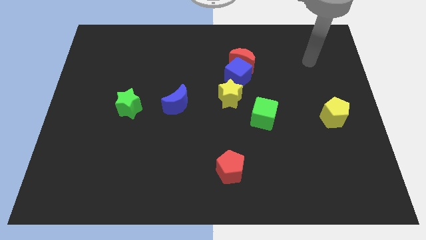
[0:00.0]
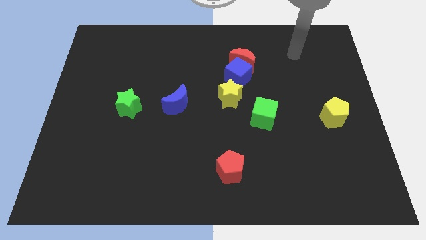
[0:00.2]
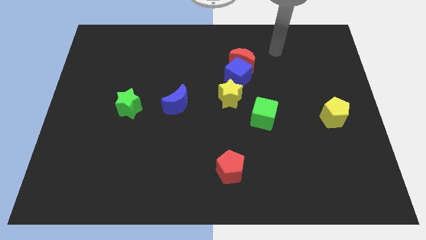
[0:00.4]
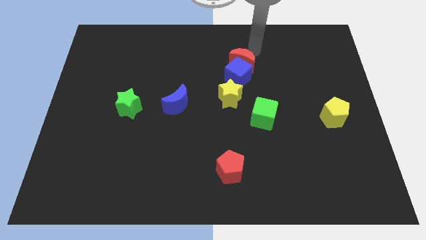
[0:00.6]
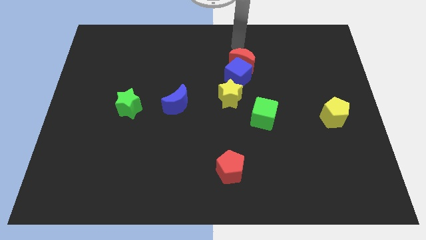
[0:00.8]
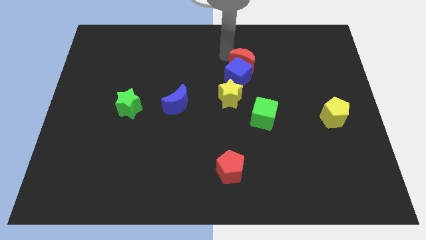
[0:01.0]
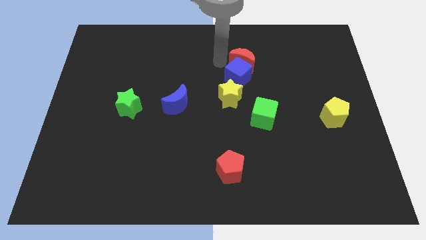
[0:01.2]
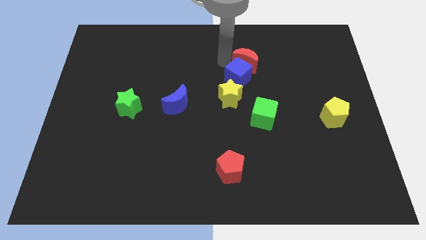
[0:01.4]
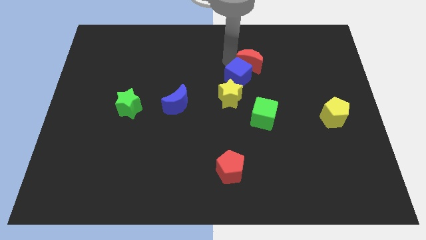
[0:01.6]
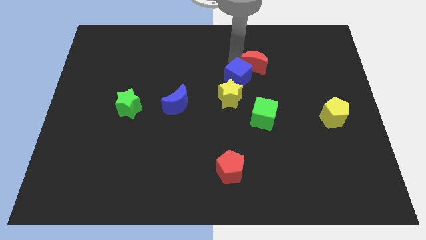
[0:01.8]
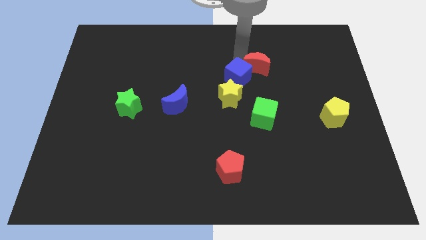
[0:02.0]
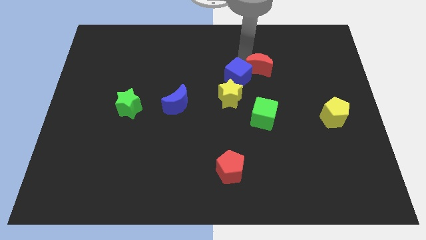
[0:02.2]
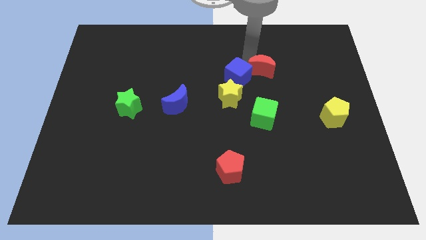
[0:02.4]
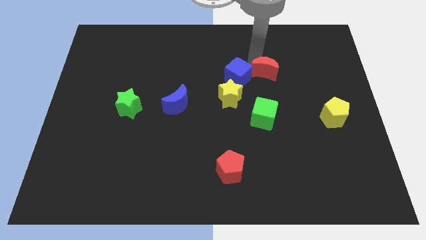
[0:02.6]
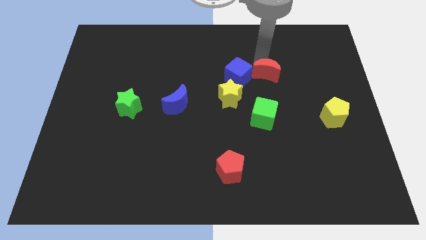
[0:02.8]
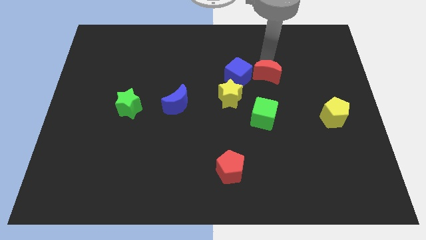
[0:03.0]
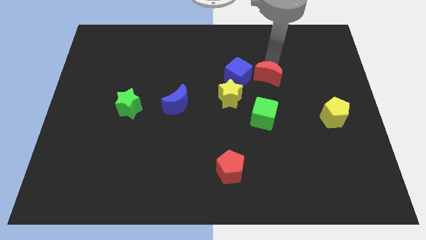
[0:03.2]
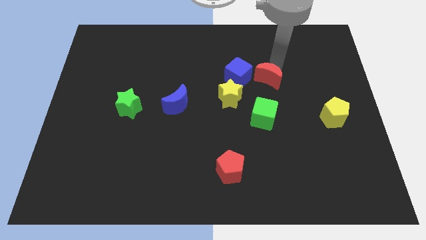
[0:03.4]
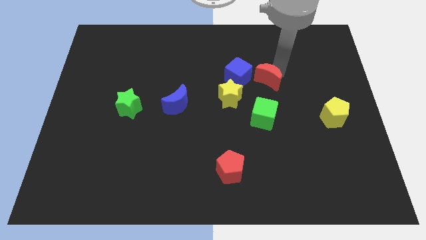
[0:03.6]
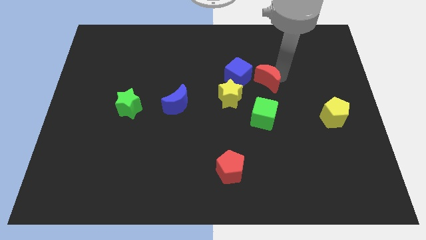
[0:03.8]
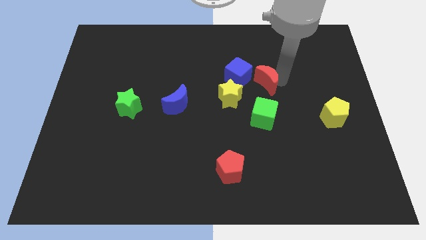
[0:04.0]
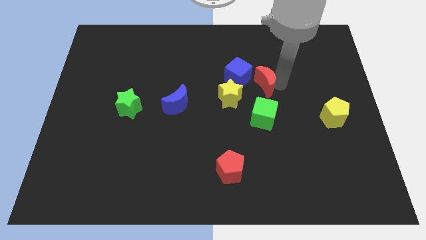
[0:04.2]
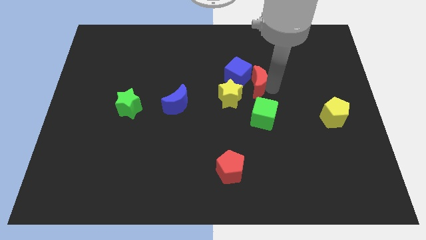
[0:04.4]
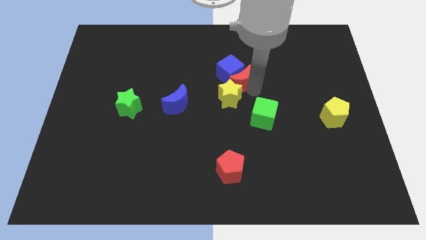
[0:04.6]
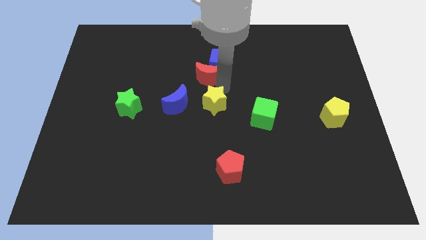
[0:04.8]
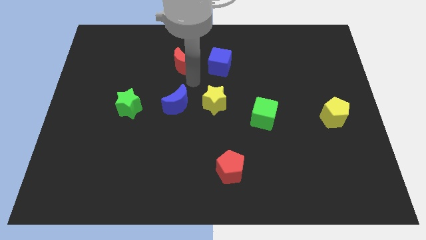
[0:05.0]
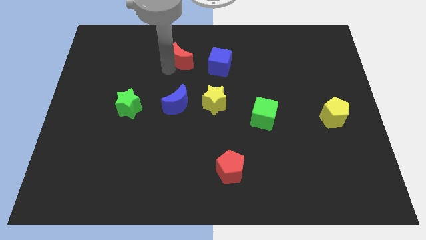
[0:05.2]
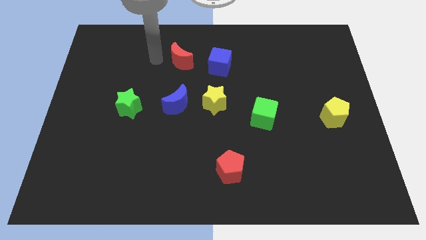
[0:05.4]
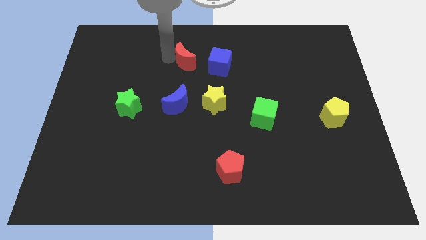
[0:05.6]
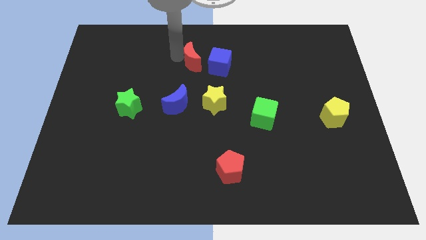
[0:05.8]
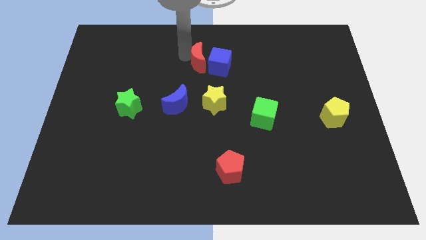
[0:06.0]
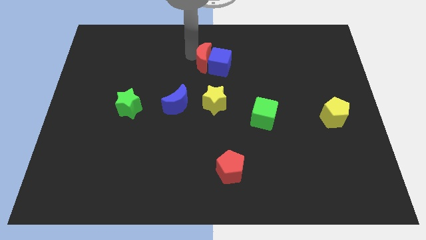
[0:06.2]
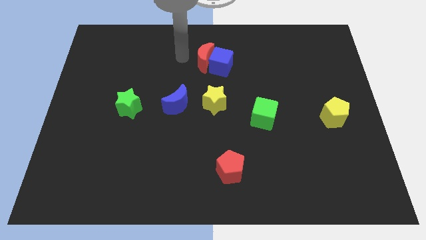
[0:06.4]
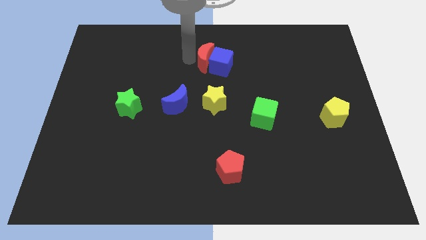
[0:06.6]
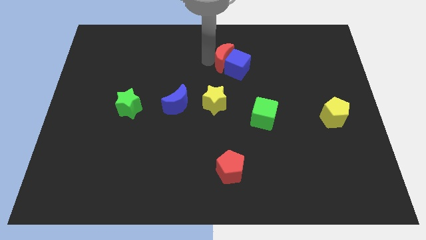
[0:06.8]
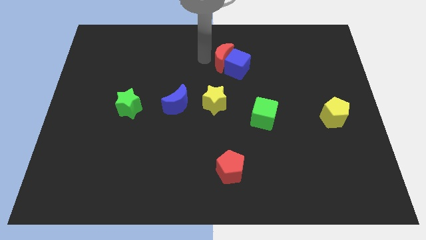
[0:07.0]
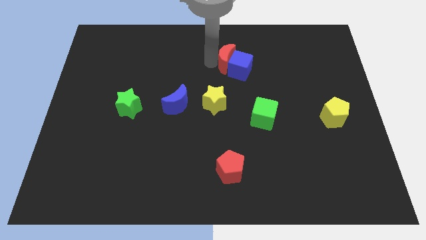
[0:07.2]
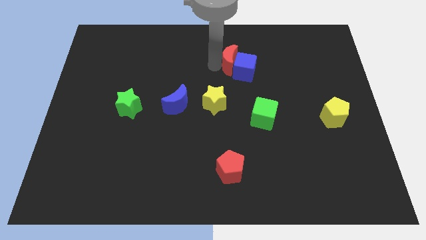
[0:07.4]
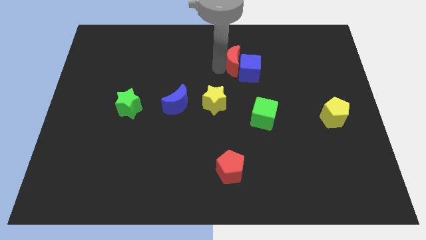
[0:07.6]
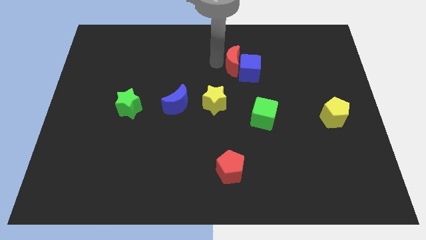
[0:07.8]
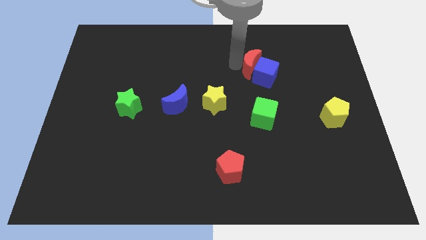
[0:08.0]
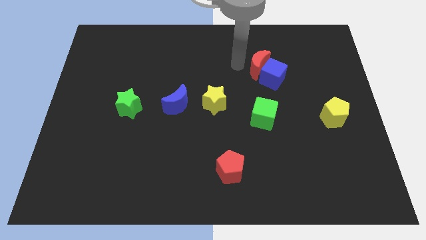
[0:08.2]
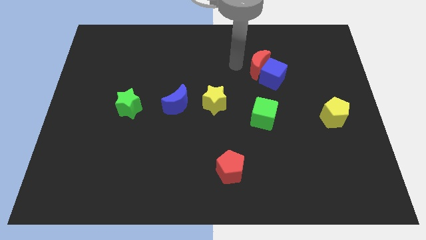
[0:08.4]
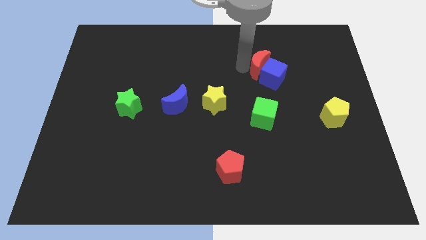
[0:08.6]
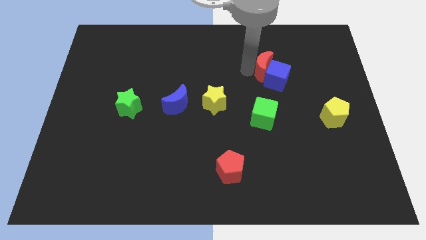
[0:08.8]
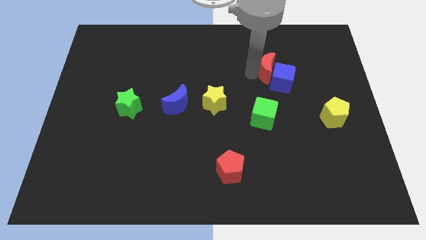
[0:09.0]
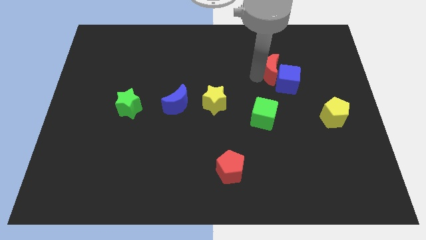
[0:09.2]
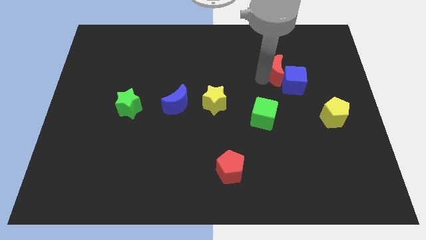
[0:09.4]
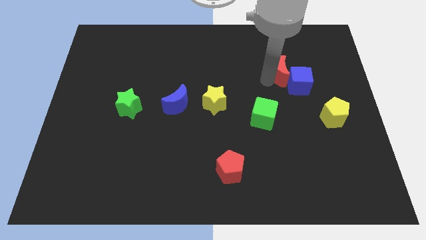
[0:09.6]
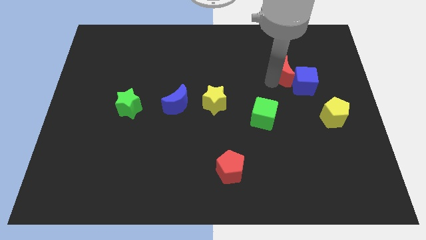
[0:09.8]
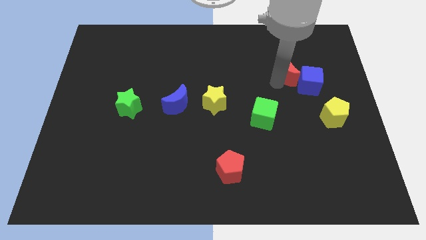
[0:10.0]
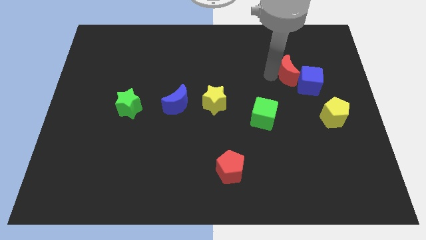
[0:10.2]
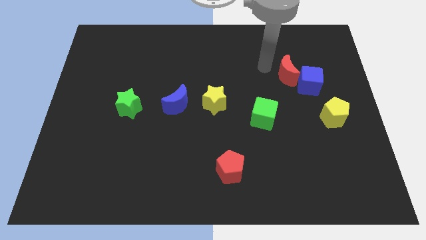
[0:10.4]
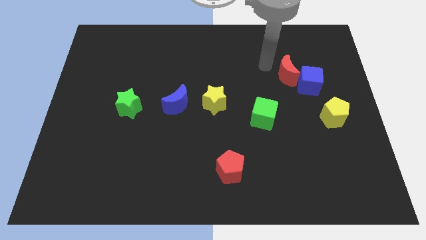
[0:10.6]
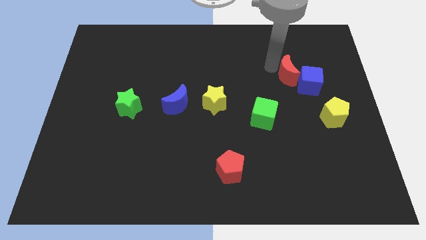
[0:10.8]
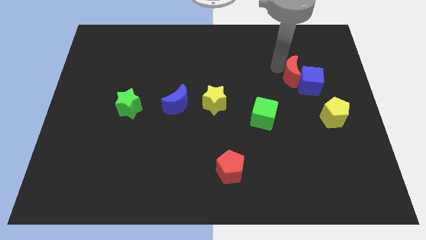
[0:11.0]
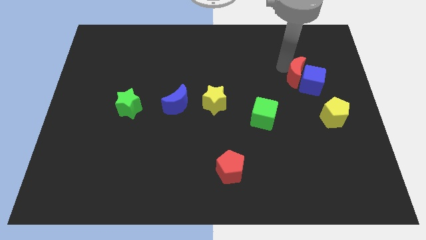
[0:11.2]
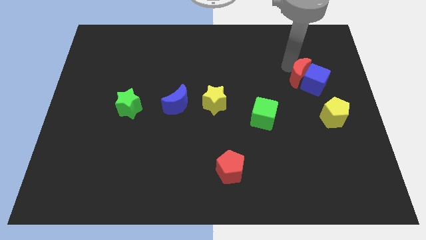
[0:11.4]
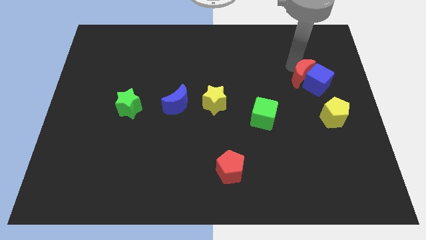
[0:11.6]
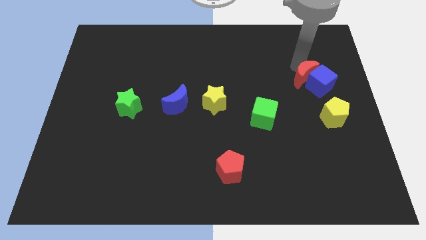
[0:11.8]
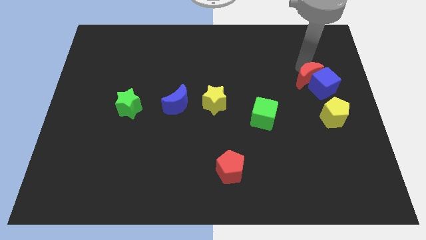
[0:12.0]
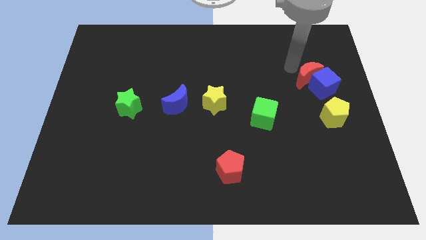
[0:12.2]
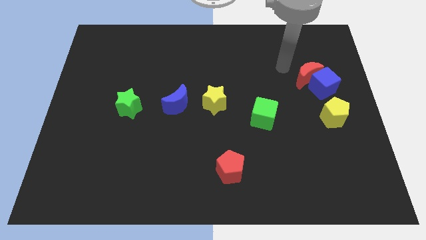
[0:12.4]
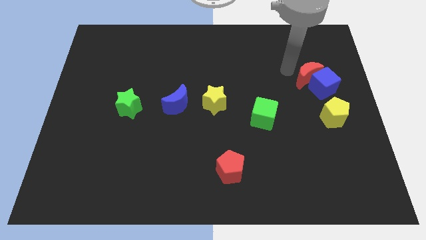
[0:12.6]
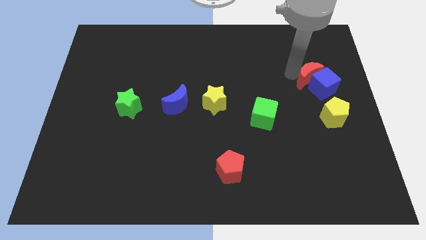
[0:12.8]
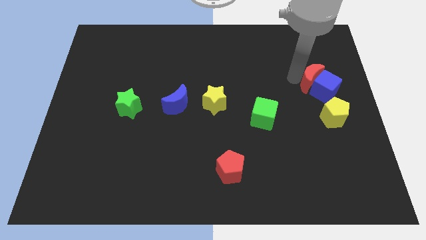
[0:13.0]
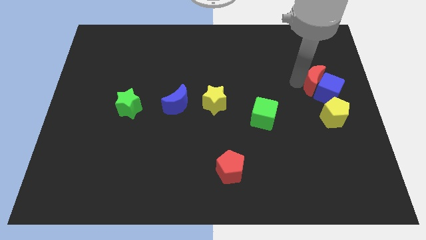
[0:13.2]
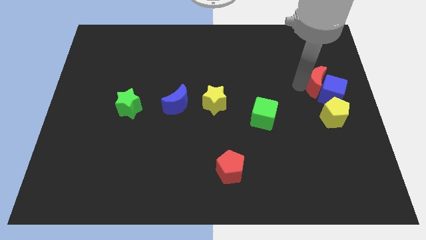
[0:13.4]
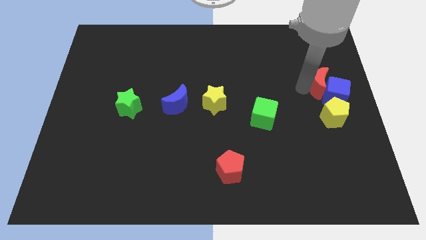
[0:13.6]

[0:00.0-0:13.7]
move the red moon to the right side
